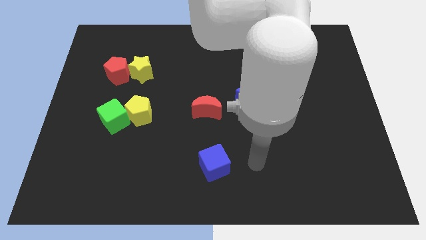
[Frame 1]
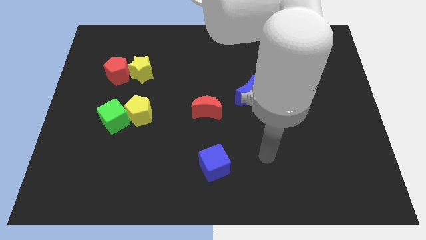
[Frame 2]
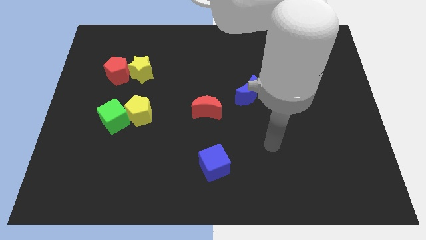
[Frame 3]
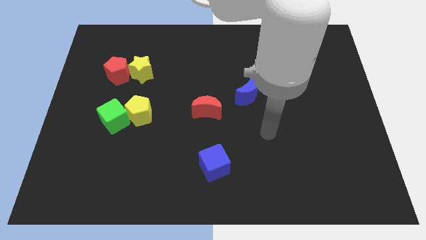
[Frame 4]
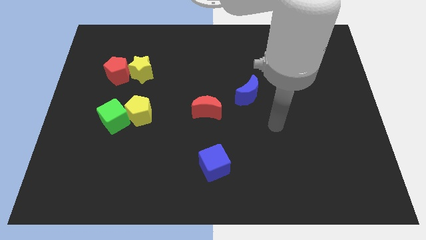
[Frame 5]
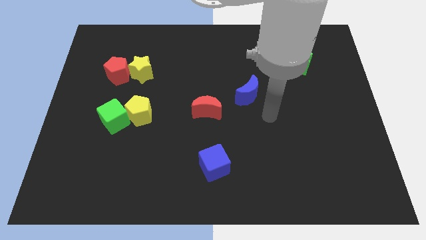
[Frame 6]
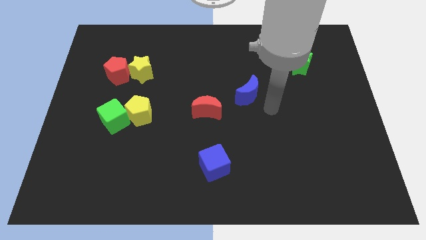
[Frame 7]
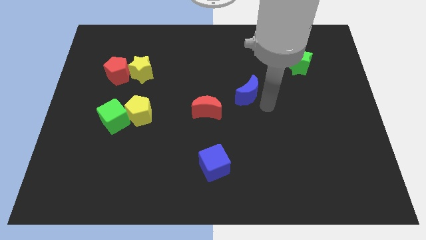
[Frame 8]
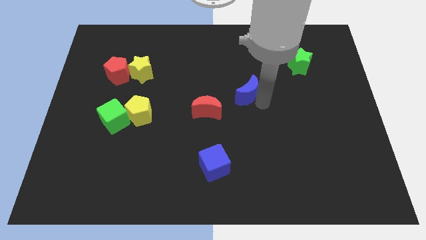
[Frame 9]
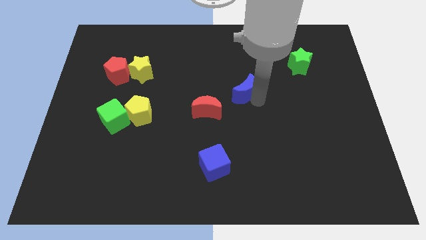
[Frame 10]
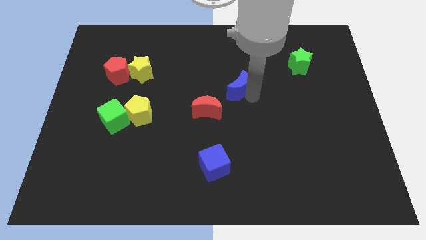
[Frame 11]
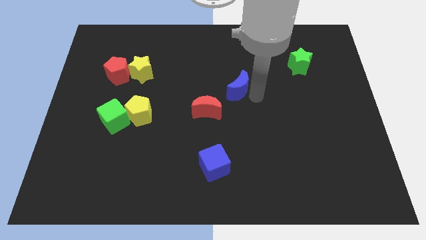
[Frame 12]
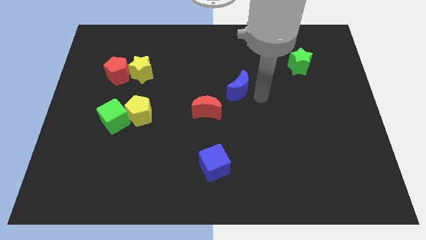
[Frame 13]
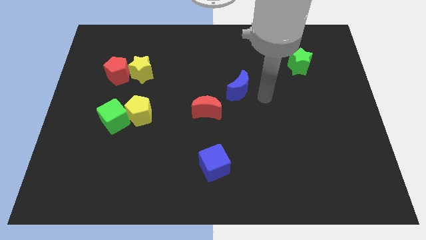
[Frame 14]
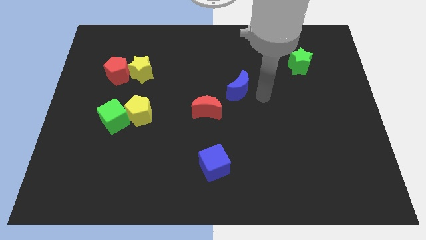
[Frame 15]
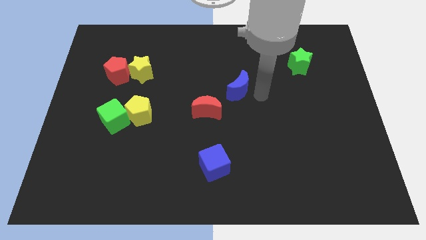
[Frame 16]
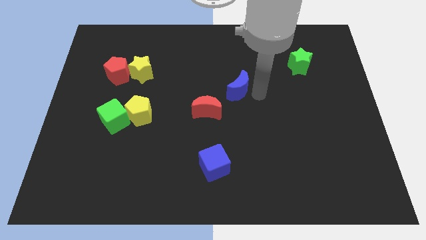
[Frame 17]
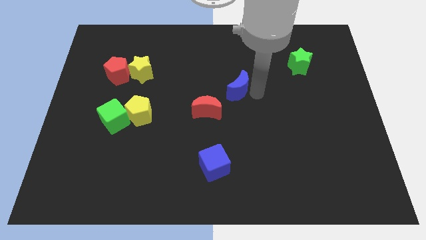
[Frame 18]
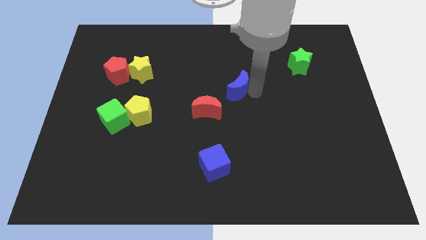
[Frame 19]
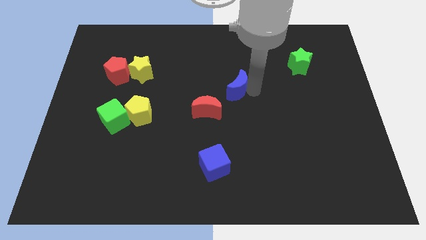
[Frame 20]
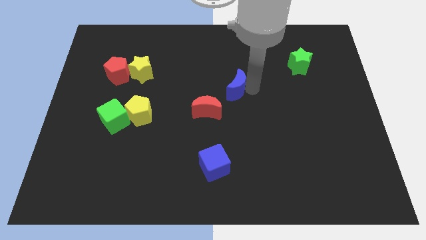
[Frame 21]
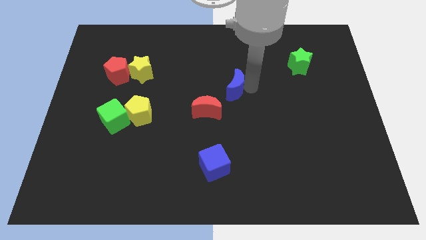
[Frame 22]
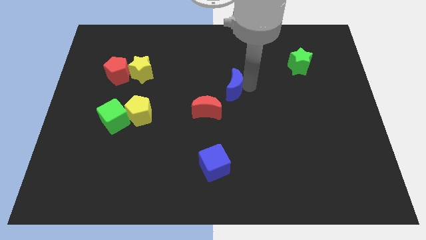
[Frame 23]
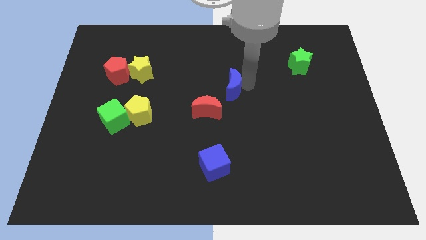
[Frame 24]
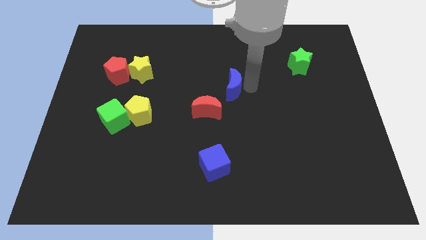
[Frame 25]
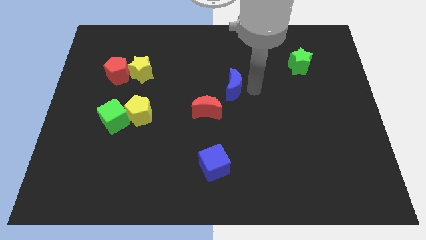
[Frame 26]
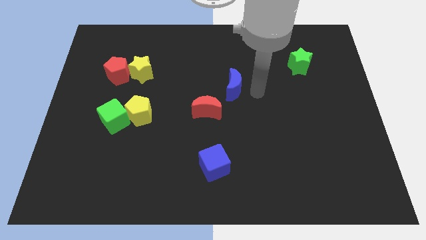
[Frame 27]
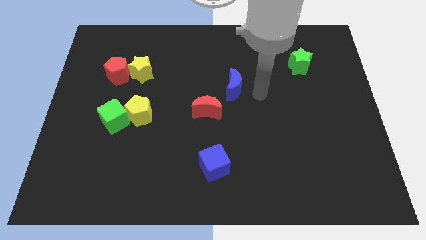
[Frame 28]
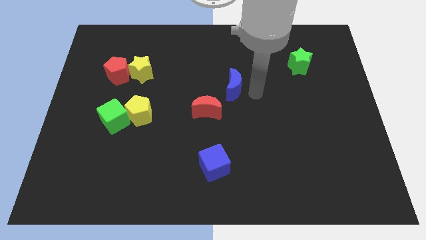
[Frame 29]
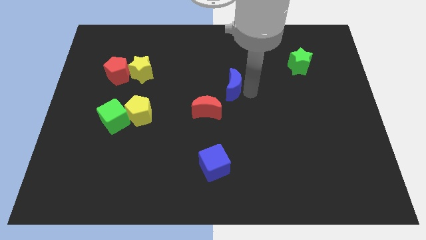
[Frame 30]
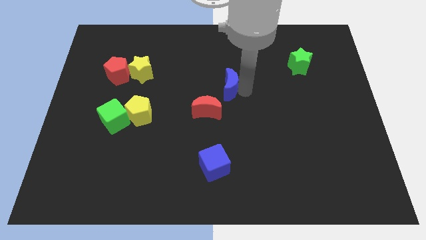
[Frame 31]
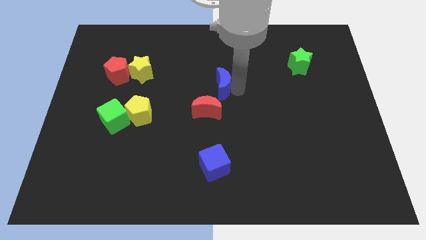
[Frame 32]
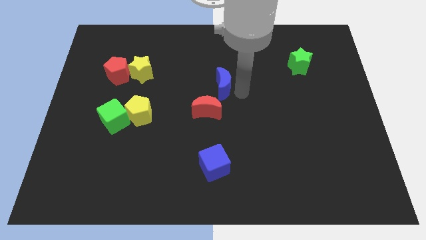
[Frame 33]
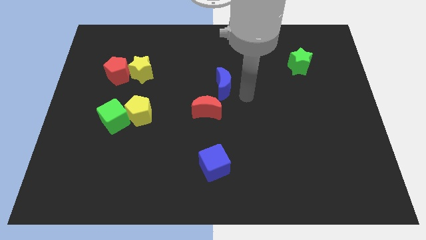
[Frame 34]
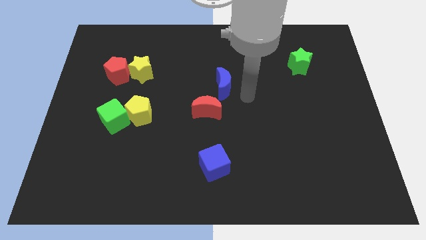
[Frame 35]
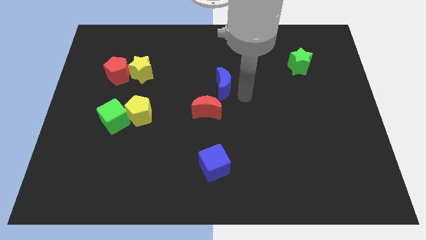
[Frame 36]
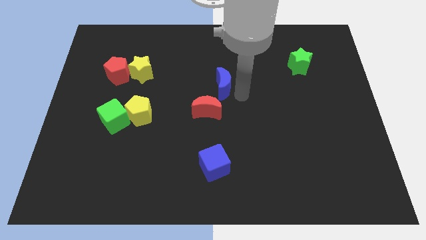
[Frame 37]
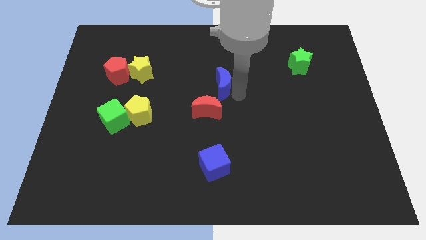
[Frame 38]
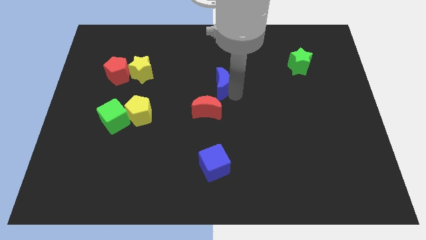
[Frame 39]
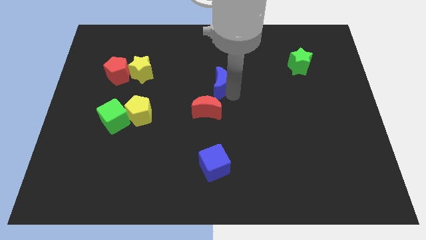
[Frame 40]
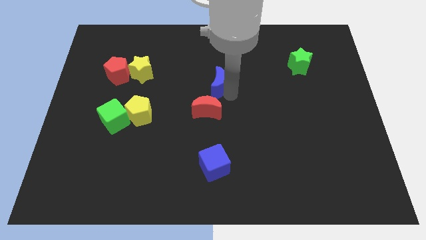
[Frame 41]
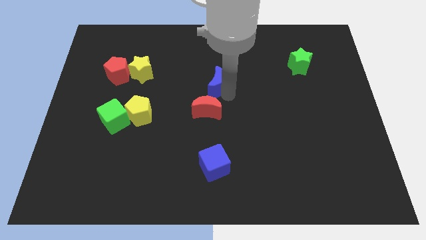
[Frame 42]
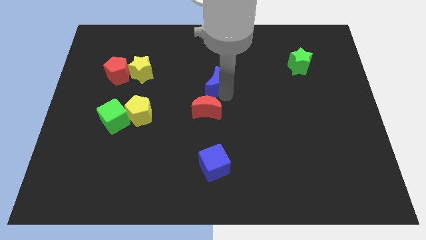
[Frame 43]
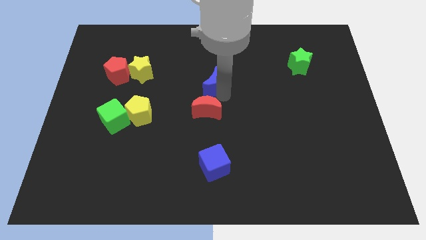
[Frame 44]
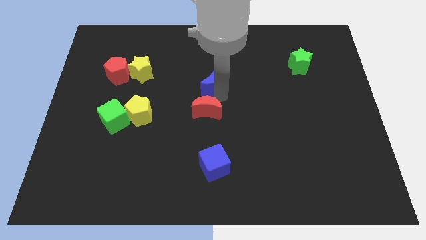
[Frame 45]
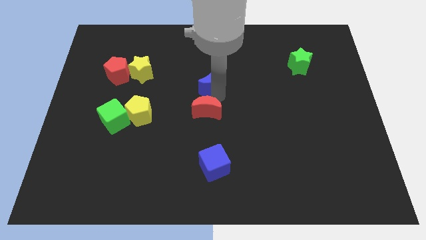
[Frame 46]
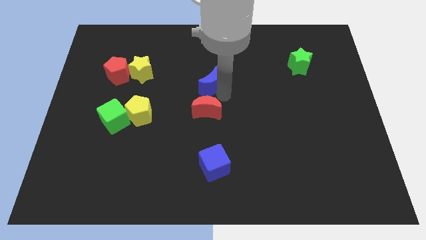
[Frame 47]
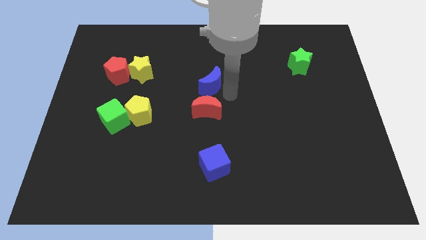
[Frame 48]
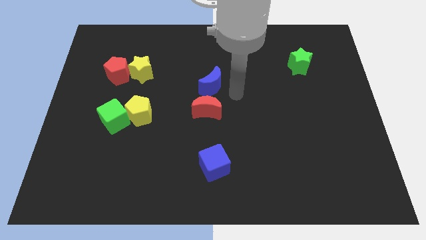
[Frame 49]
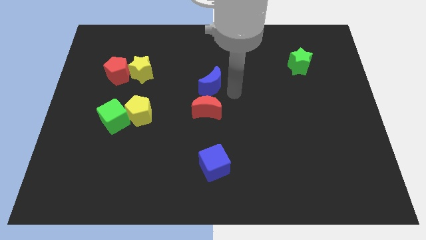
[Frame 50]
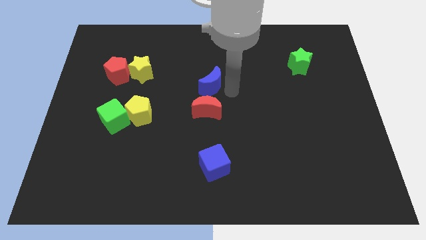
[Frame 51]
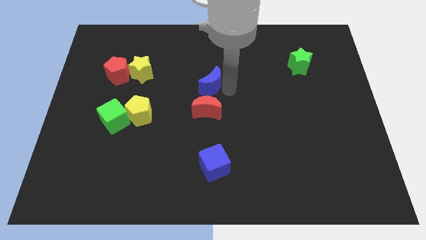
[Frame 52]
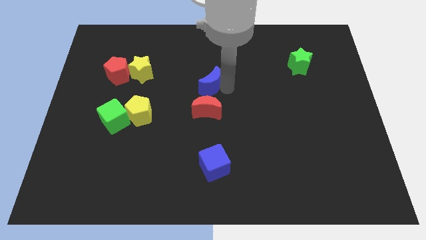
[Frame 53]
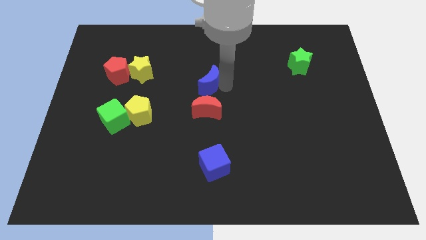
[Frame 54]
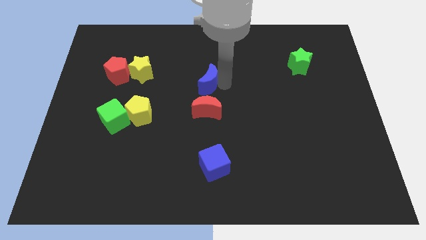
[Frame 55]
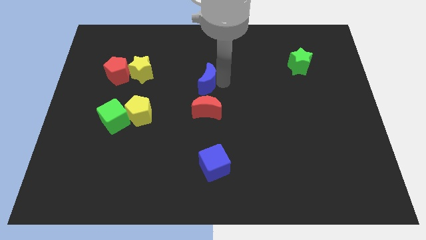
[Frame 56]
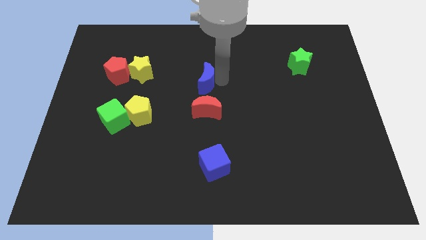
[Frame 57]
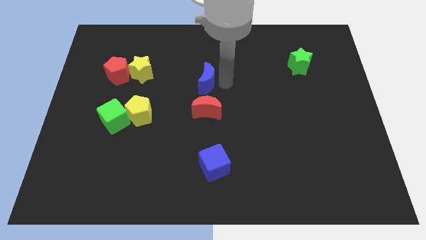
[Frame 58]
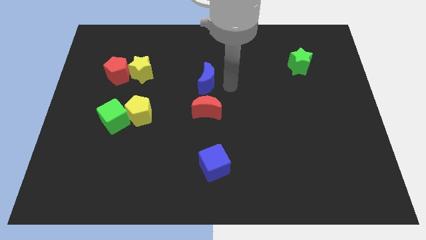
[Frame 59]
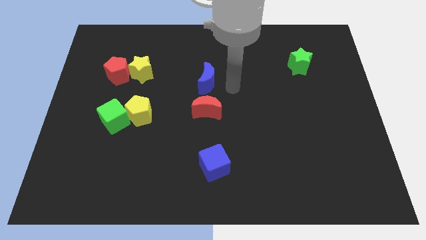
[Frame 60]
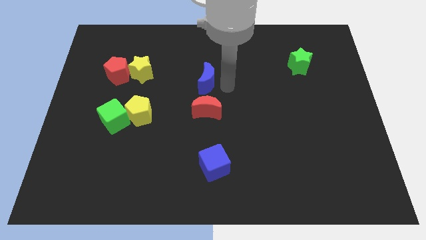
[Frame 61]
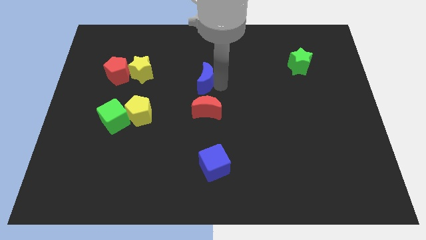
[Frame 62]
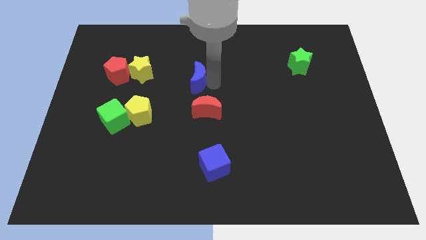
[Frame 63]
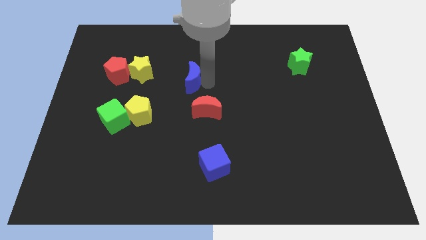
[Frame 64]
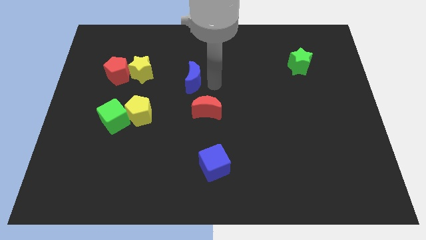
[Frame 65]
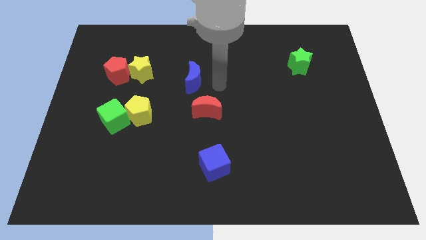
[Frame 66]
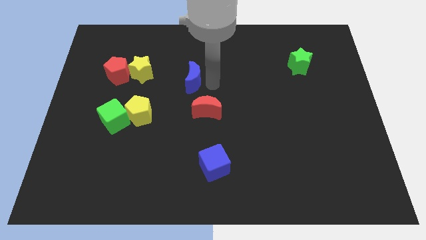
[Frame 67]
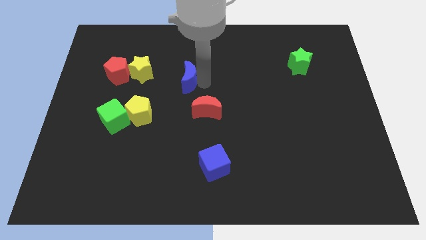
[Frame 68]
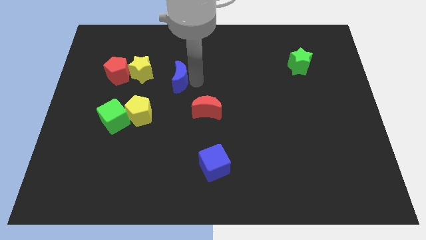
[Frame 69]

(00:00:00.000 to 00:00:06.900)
put the blue moon to the right of the red pentagon
